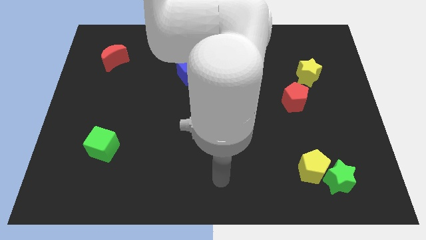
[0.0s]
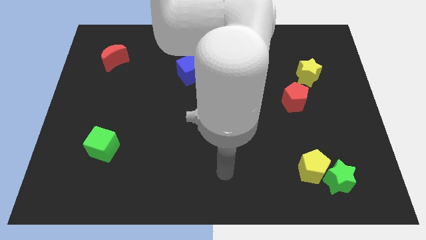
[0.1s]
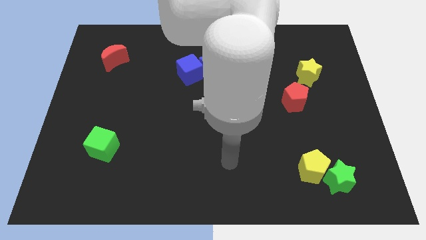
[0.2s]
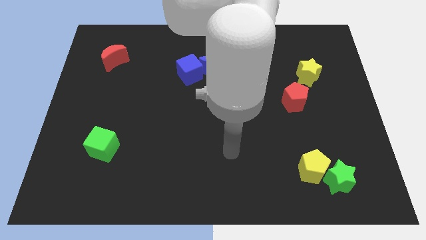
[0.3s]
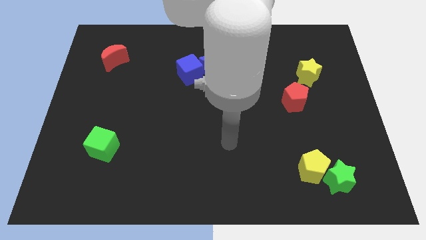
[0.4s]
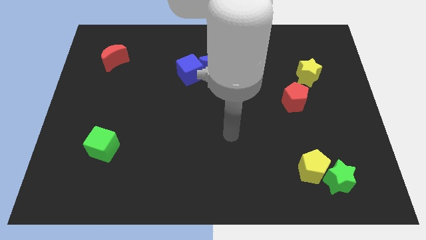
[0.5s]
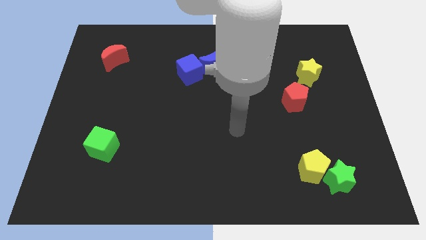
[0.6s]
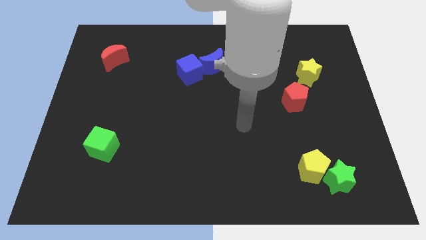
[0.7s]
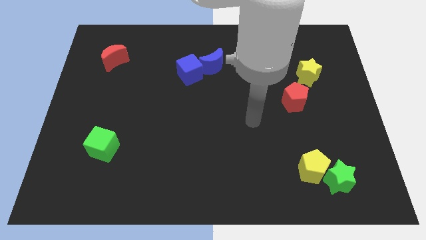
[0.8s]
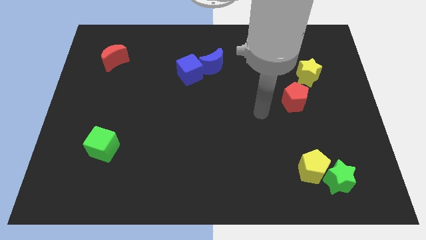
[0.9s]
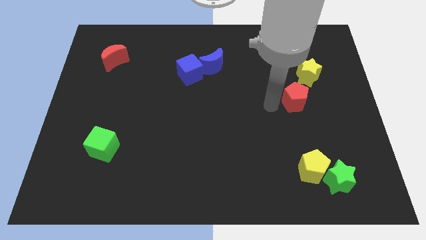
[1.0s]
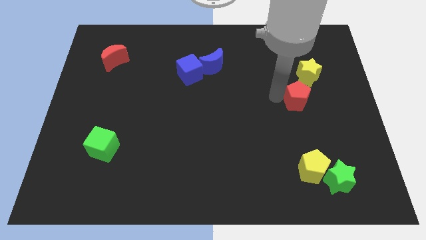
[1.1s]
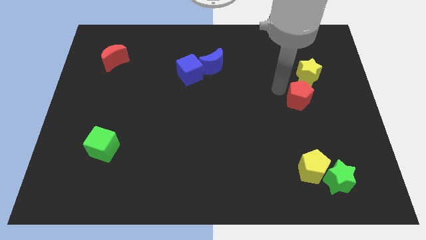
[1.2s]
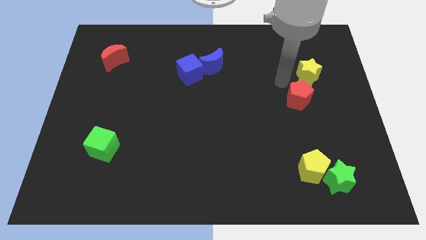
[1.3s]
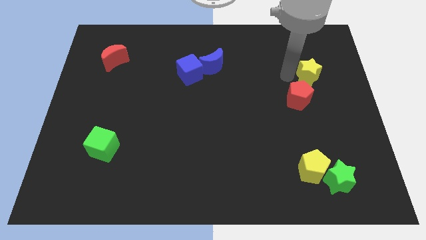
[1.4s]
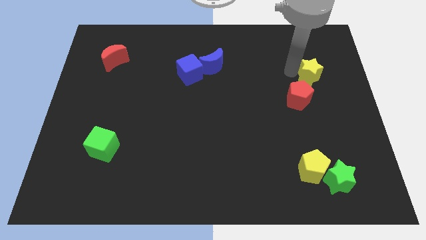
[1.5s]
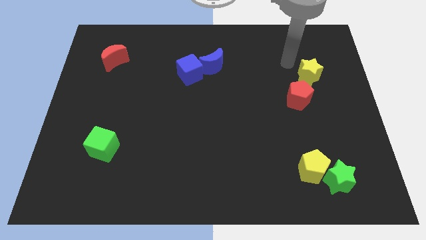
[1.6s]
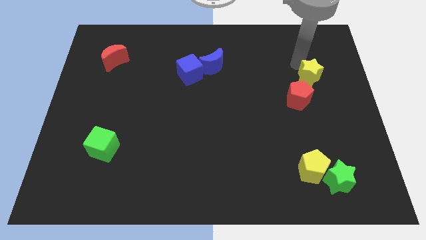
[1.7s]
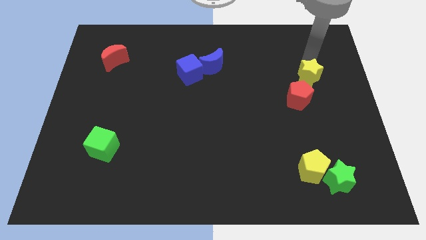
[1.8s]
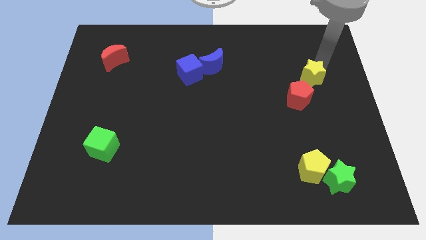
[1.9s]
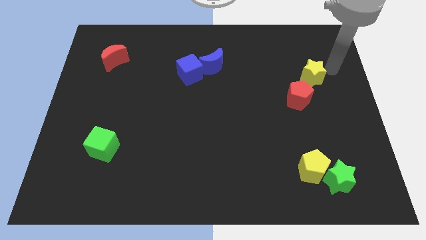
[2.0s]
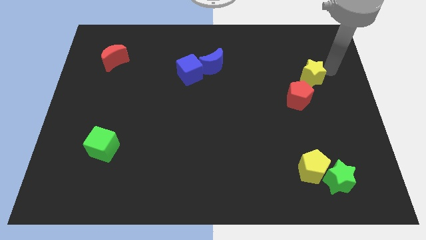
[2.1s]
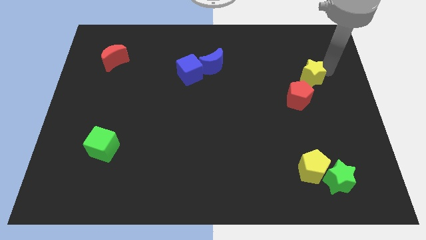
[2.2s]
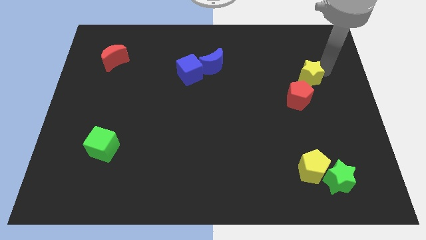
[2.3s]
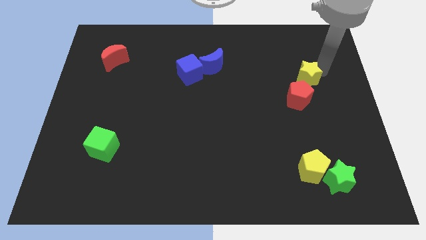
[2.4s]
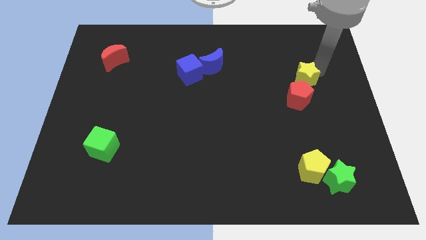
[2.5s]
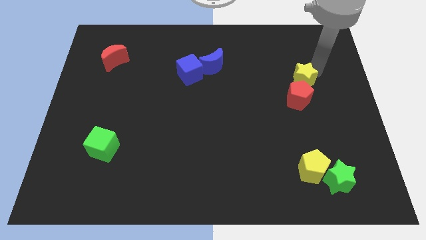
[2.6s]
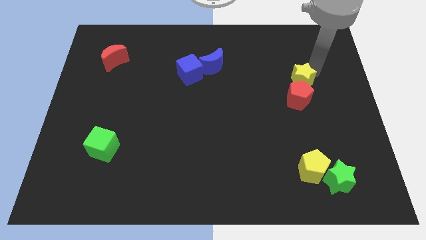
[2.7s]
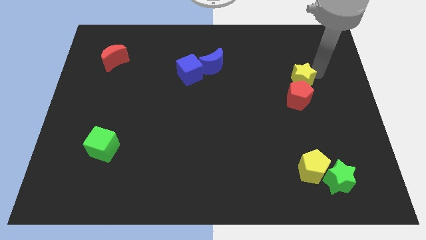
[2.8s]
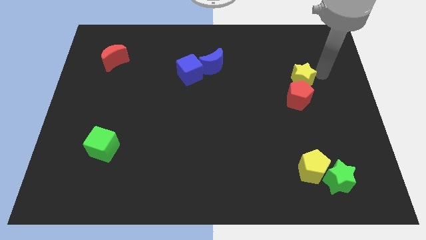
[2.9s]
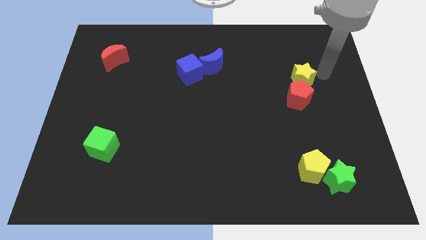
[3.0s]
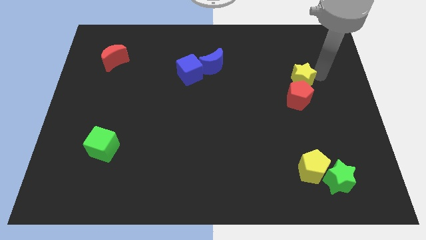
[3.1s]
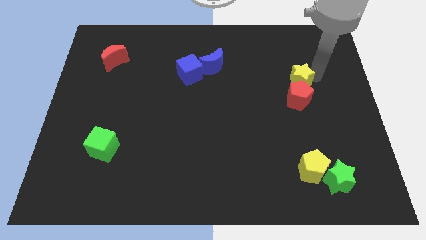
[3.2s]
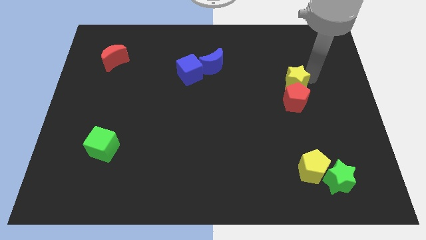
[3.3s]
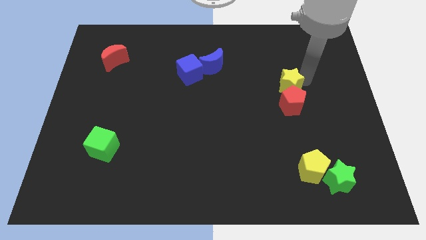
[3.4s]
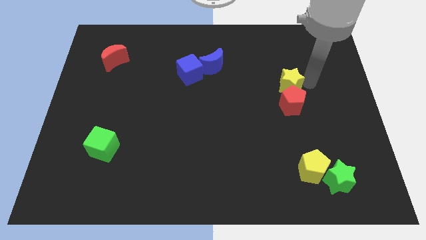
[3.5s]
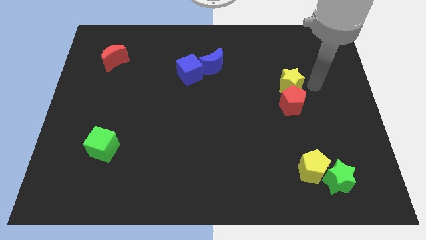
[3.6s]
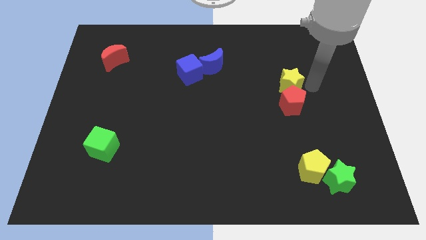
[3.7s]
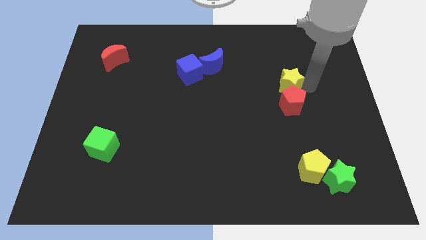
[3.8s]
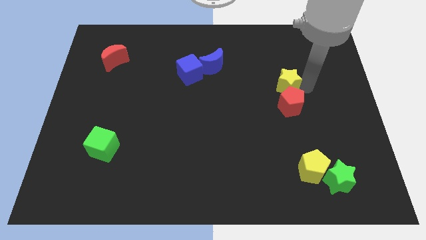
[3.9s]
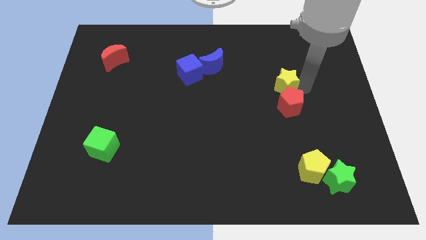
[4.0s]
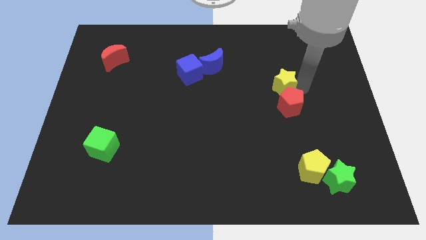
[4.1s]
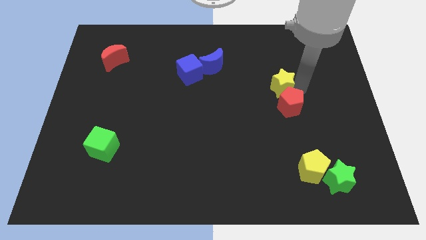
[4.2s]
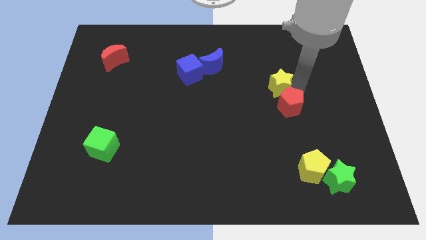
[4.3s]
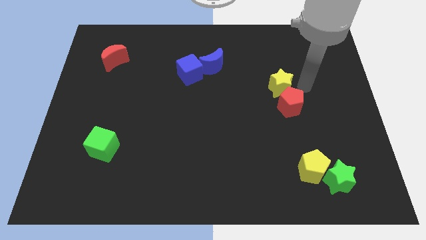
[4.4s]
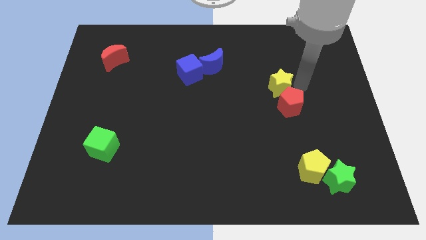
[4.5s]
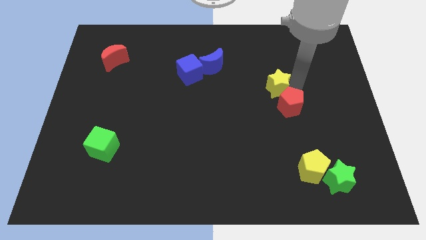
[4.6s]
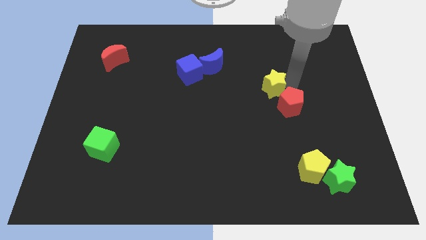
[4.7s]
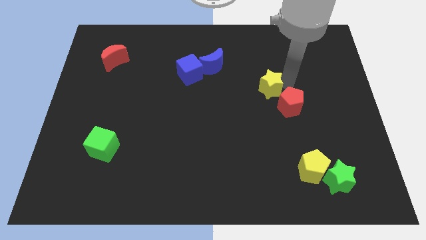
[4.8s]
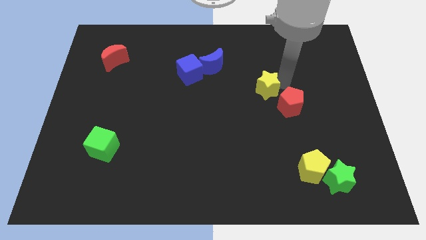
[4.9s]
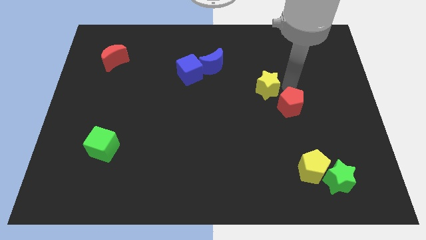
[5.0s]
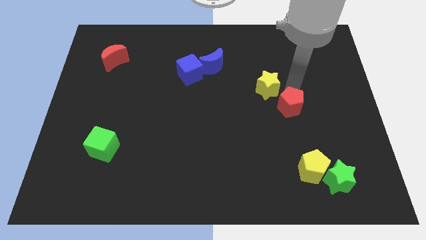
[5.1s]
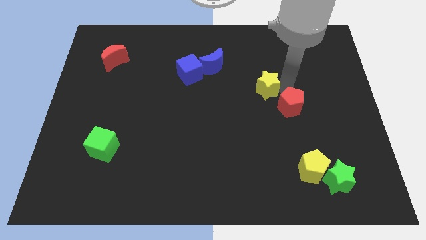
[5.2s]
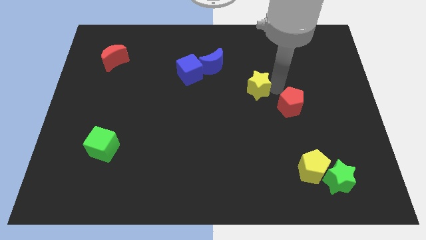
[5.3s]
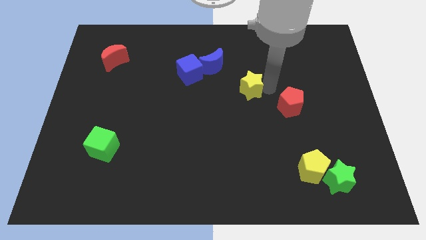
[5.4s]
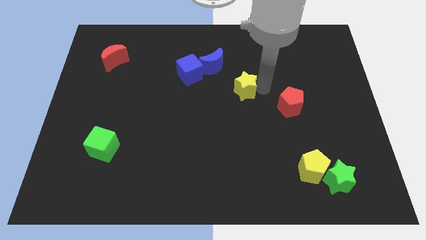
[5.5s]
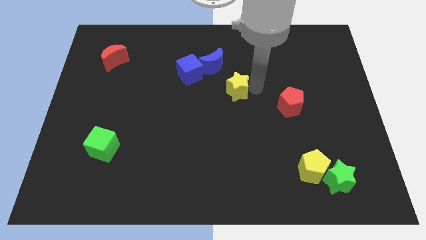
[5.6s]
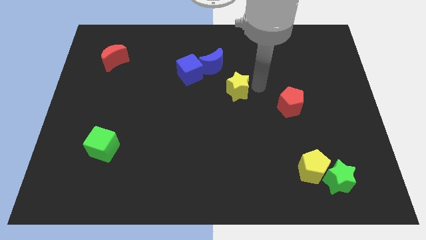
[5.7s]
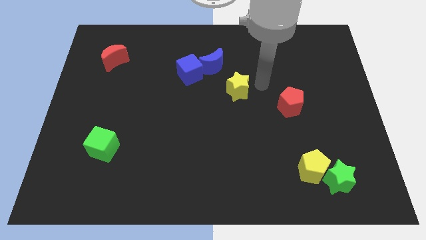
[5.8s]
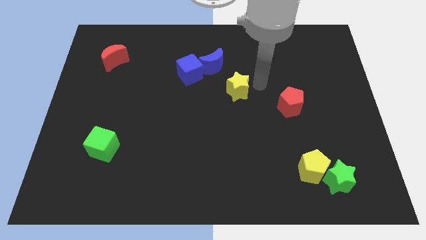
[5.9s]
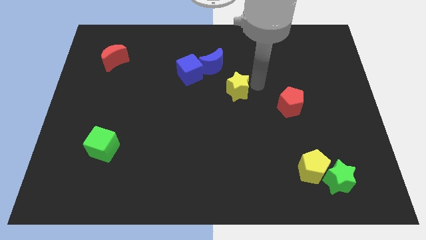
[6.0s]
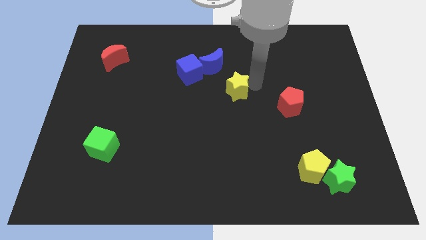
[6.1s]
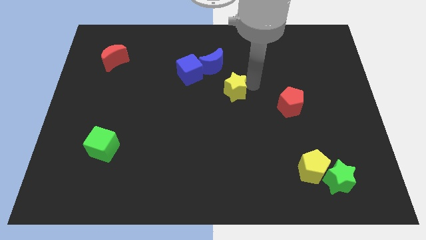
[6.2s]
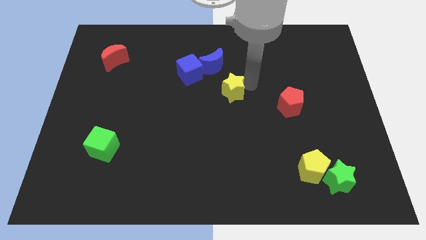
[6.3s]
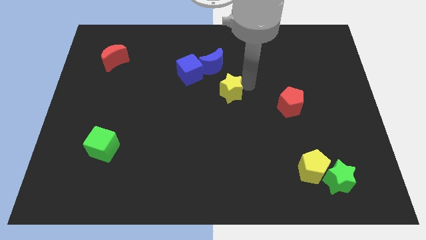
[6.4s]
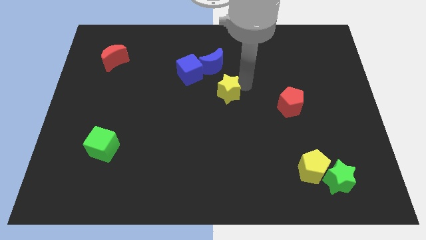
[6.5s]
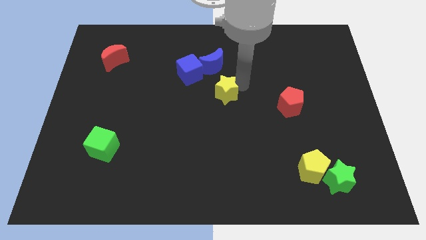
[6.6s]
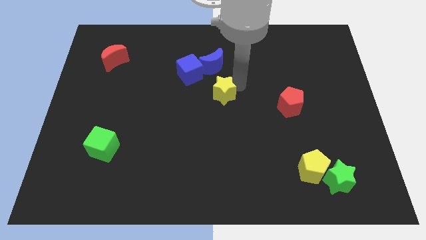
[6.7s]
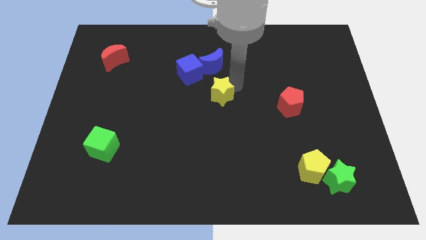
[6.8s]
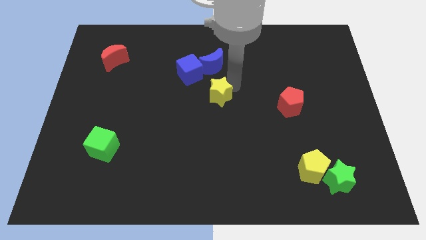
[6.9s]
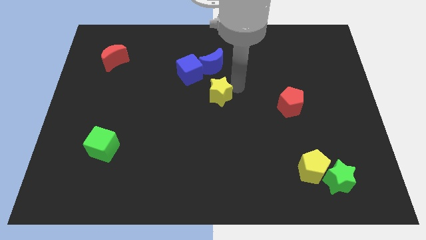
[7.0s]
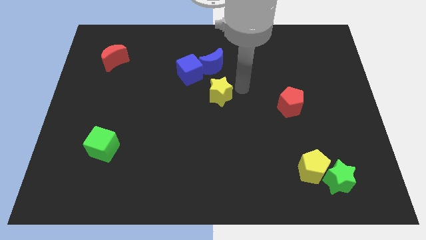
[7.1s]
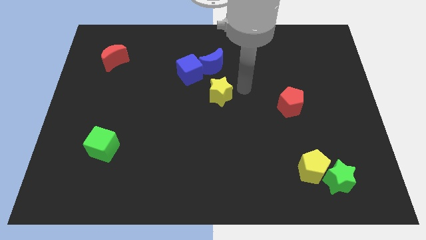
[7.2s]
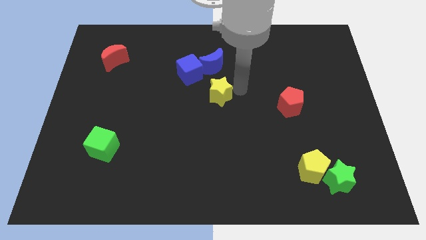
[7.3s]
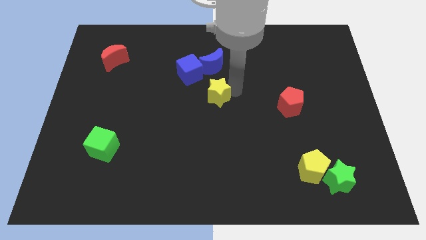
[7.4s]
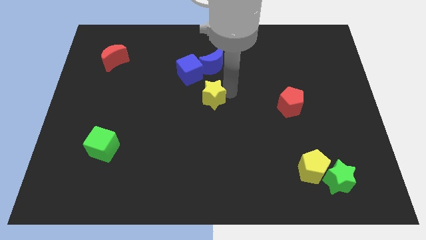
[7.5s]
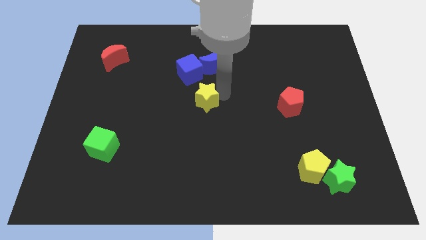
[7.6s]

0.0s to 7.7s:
slide the yellow star to the bottom side of the blue cube
